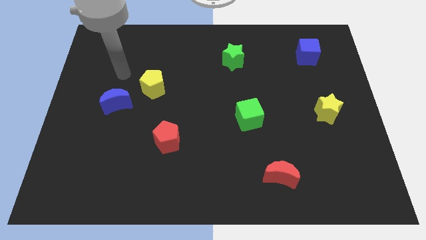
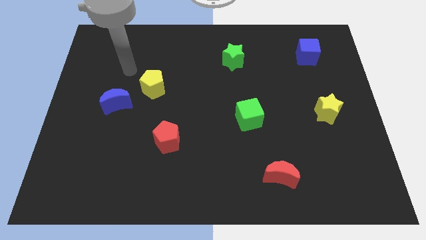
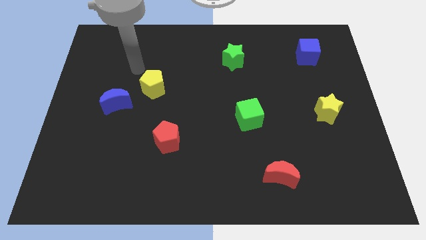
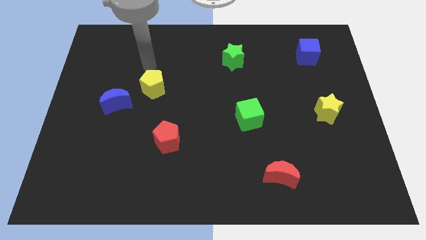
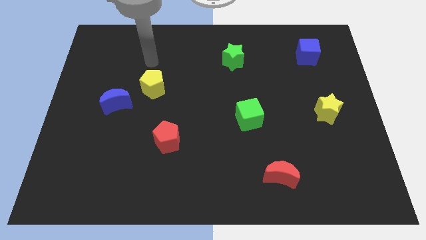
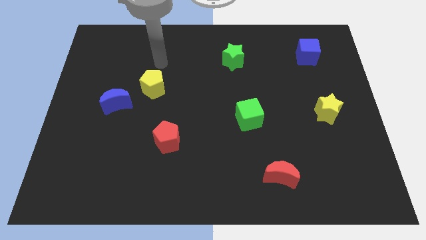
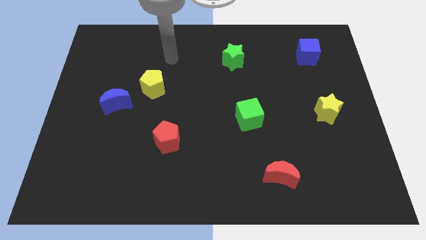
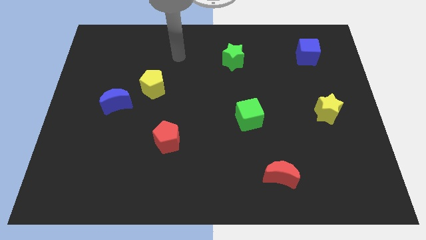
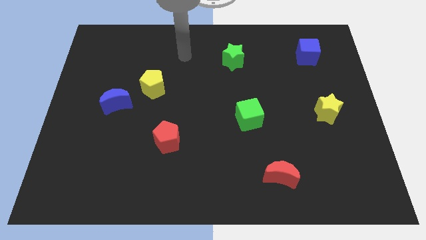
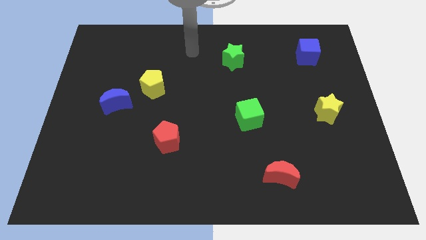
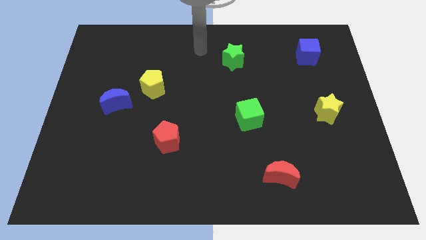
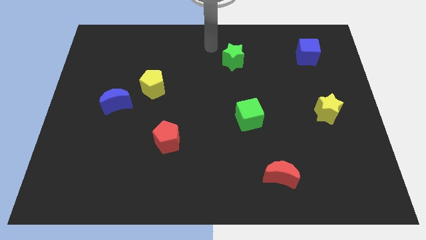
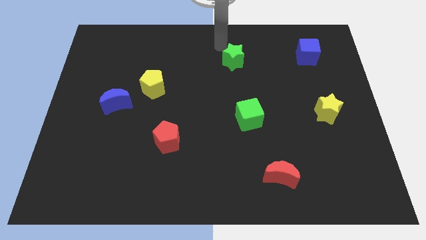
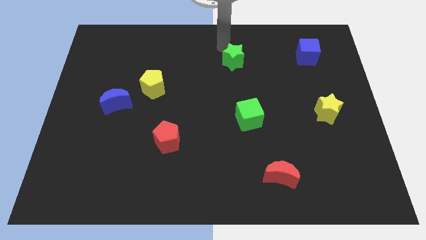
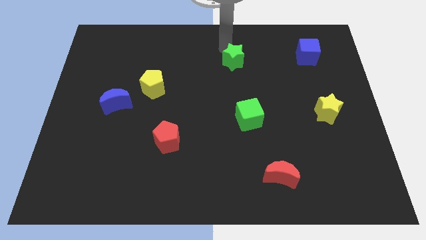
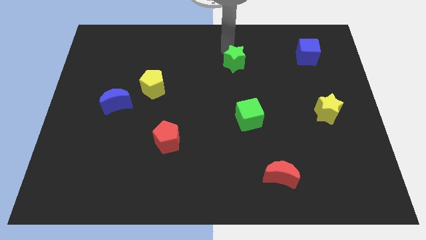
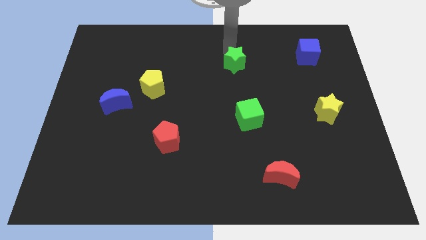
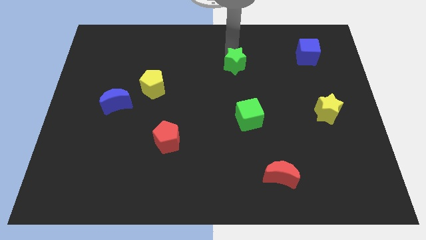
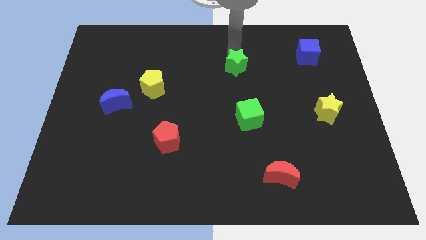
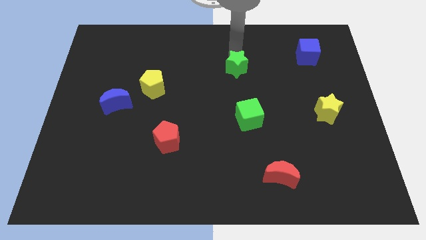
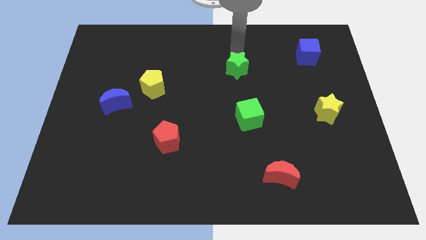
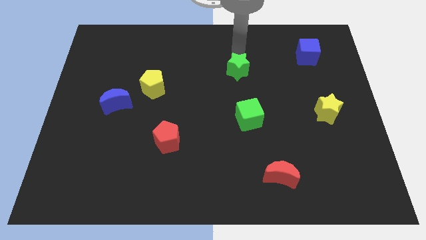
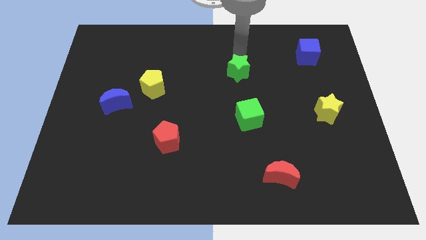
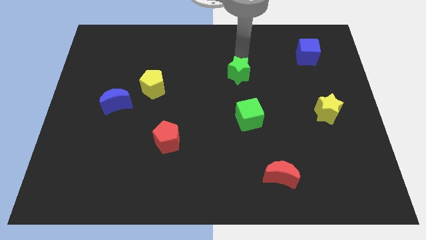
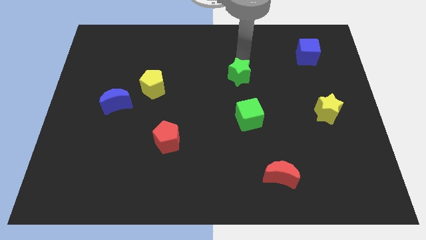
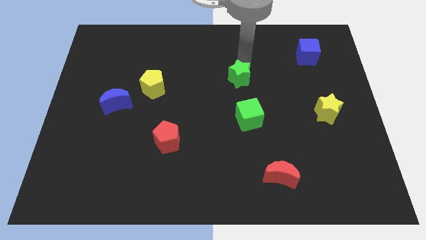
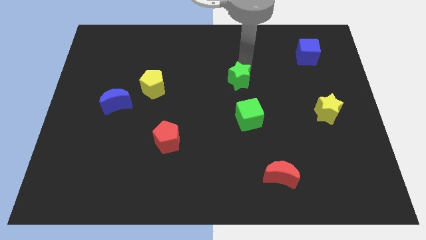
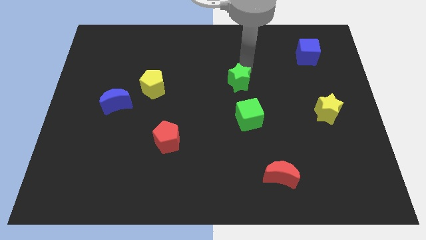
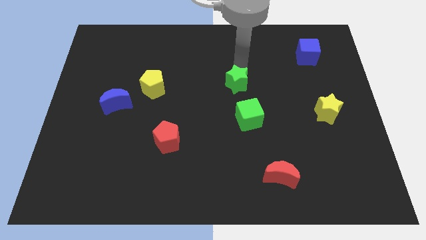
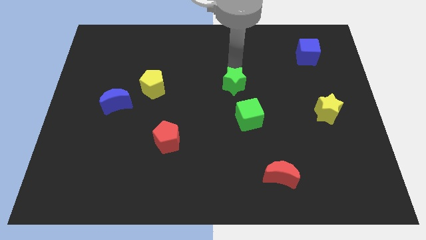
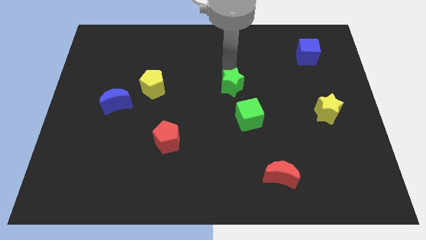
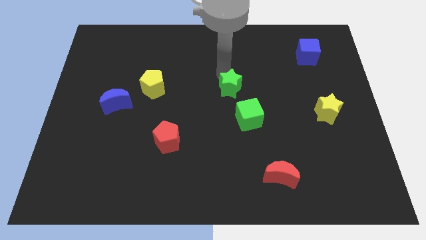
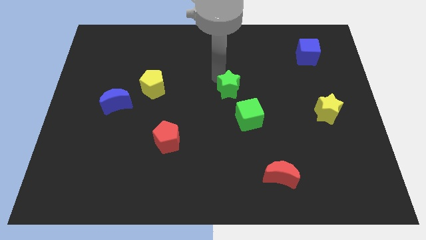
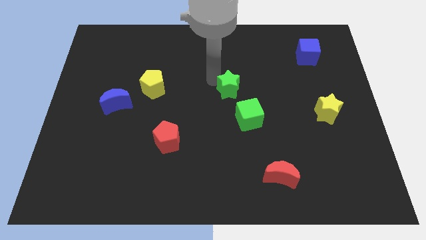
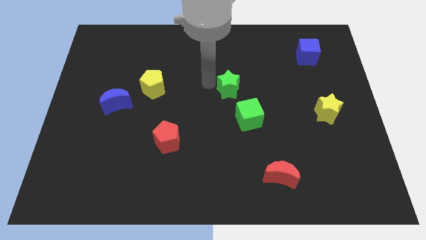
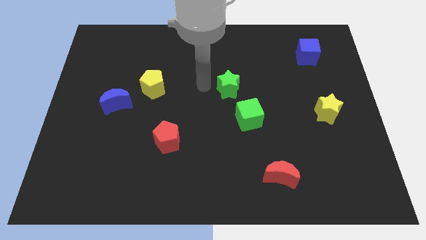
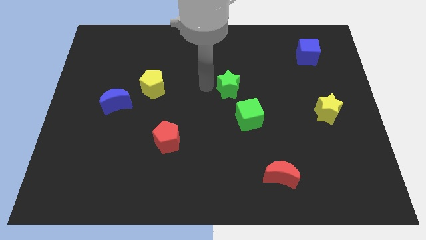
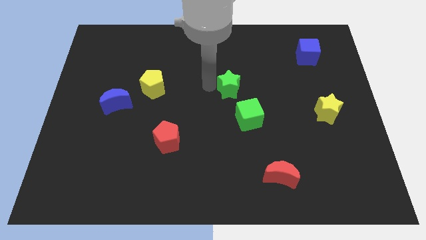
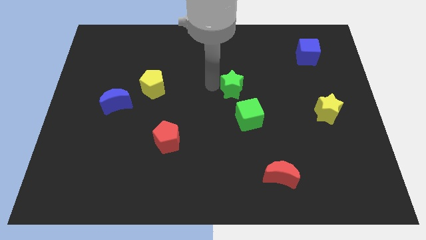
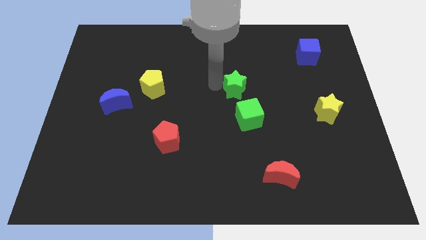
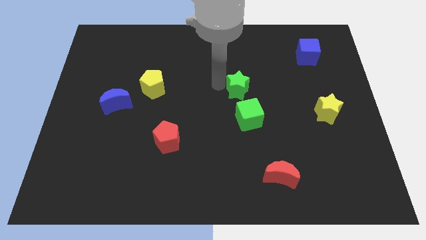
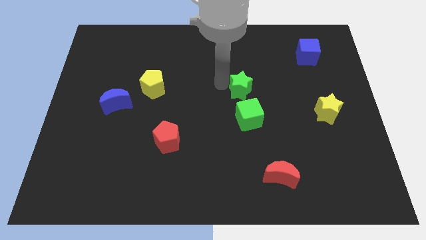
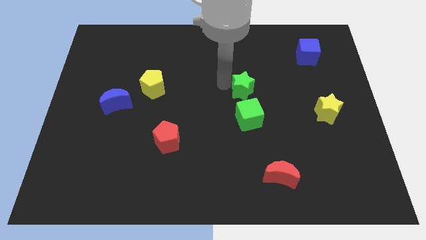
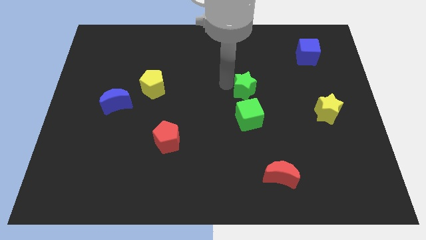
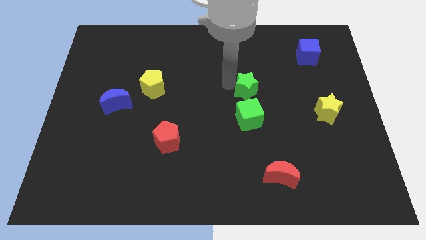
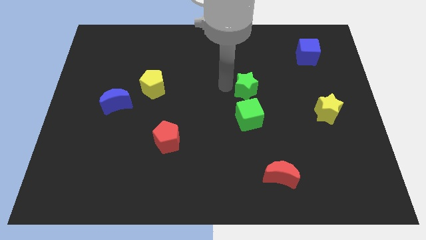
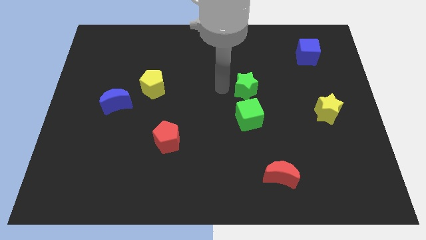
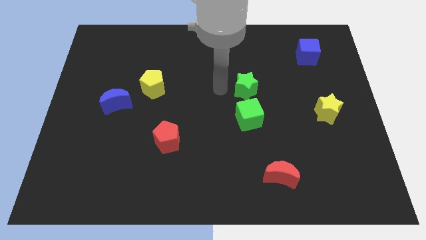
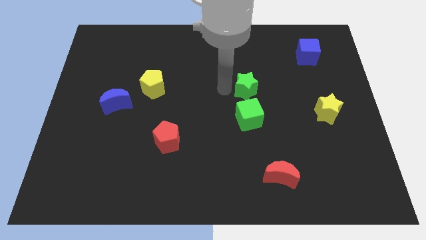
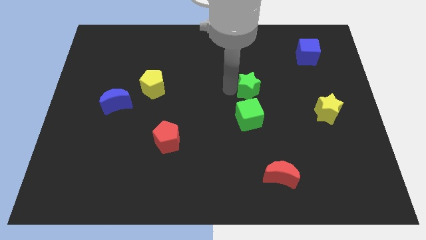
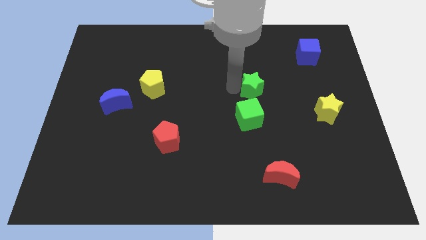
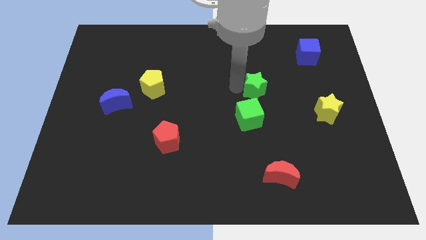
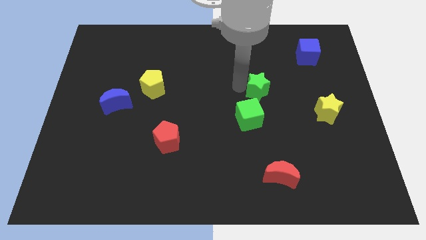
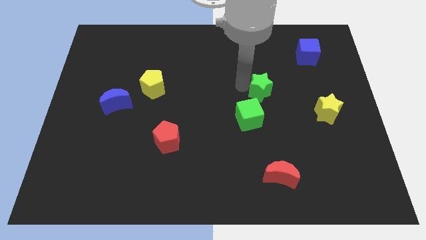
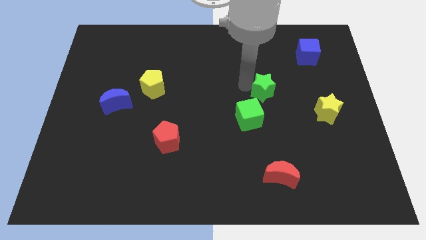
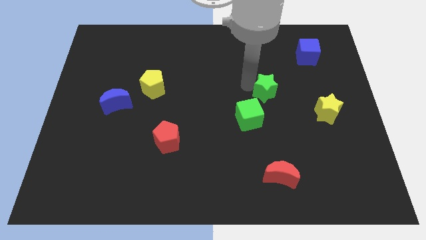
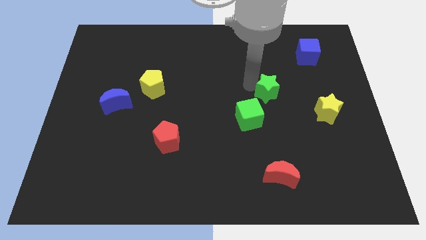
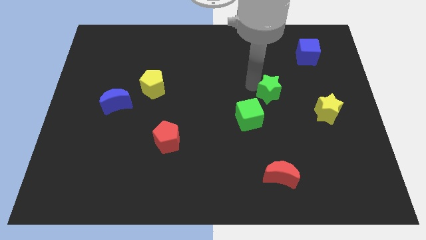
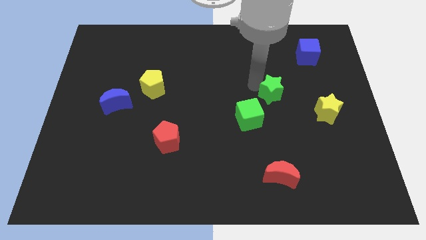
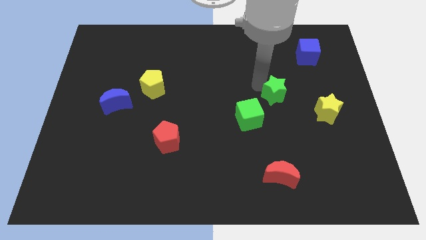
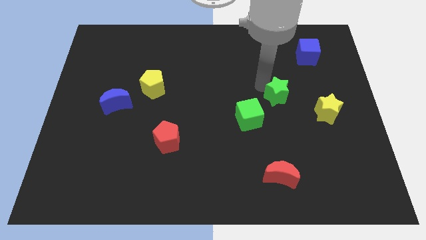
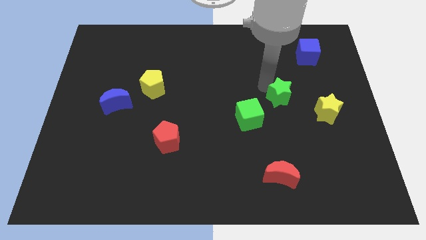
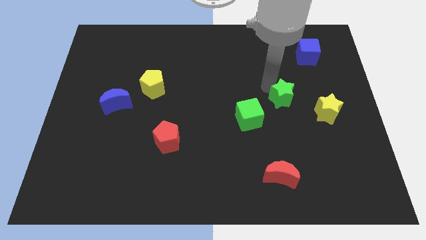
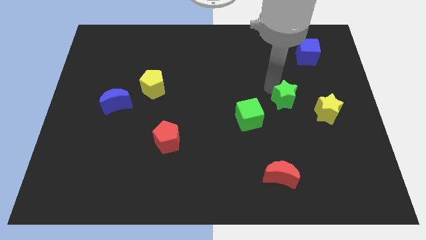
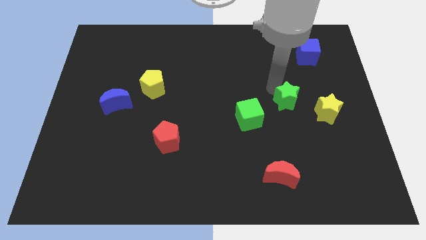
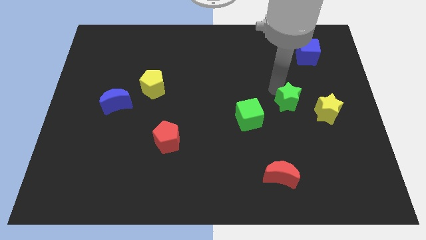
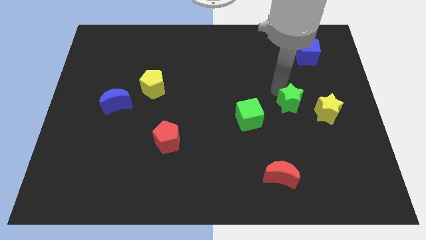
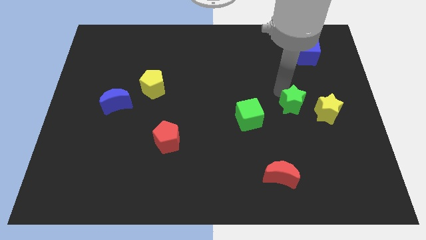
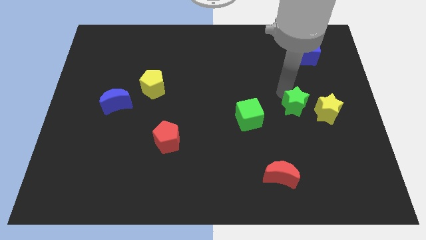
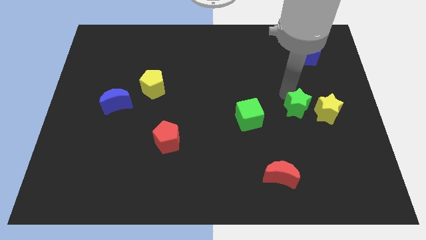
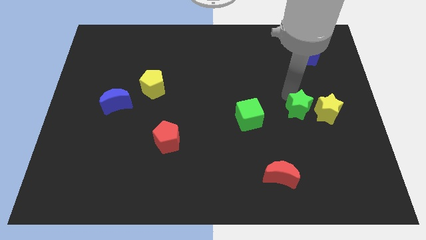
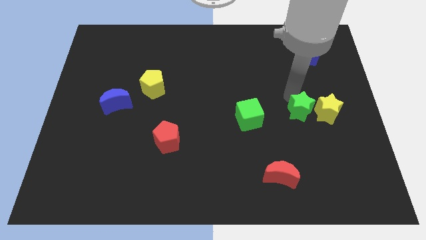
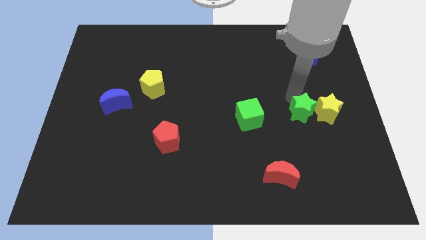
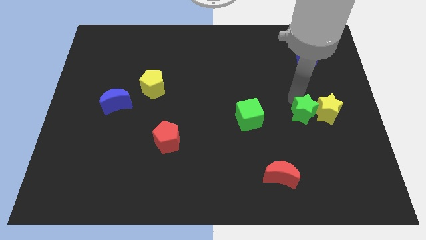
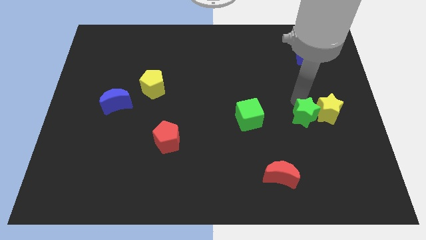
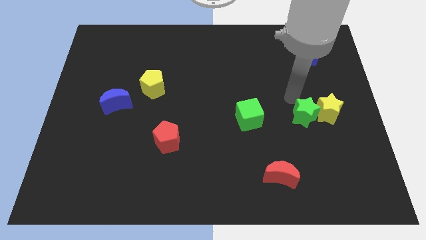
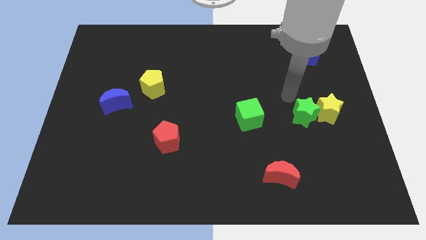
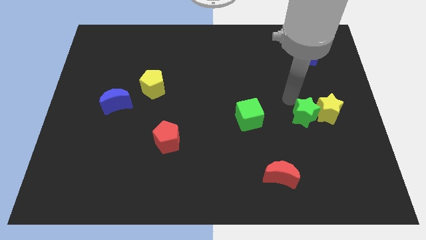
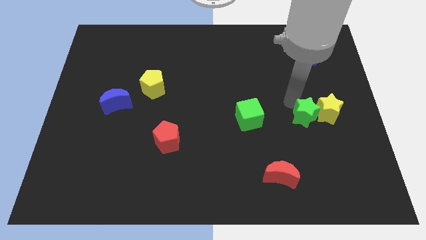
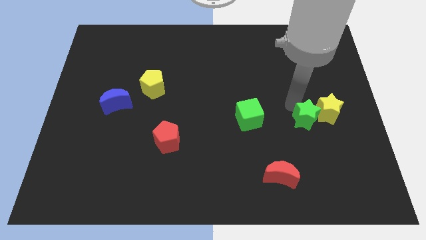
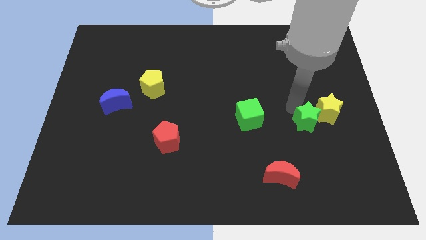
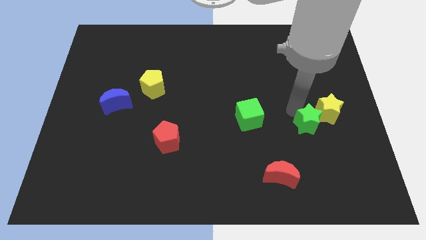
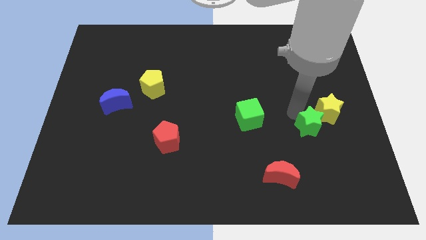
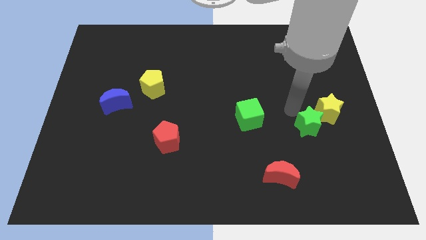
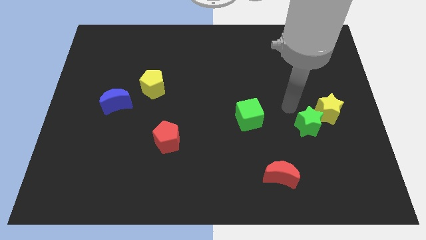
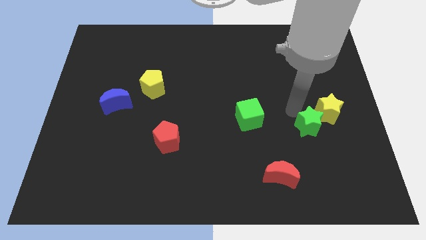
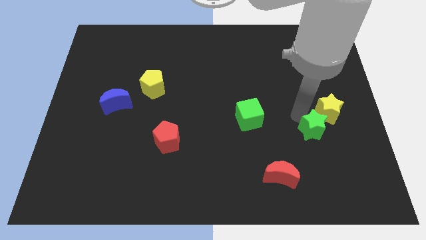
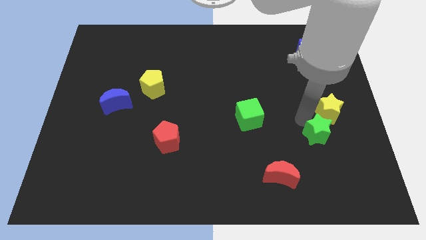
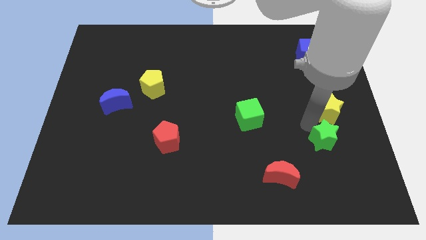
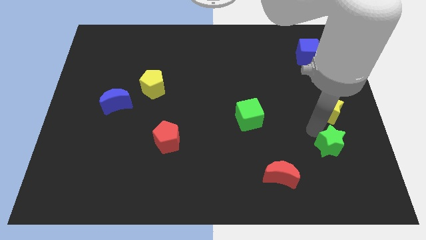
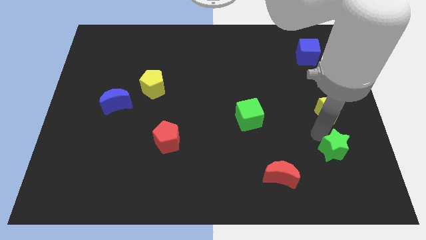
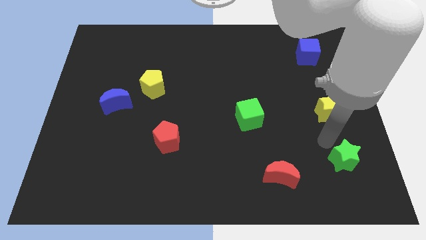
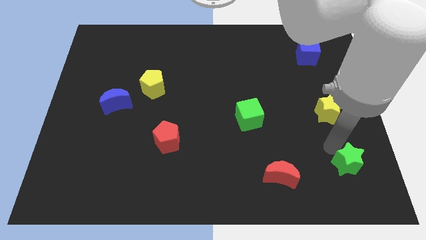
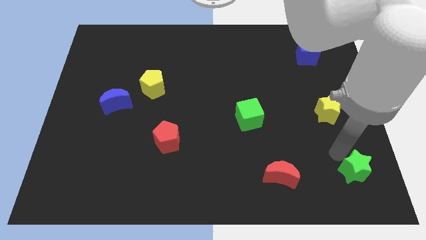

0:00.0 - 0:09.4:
move the green star to the bottom right of the board
